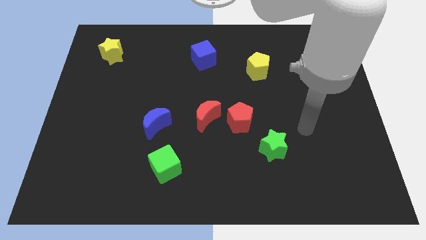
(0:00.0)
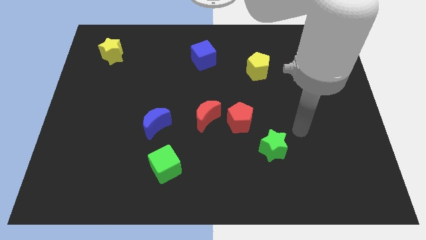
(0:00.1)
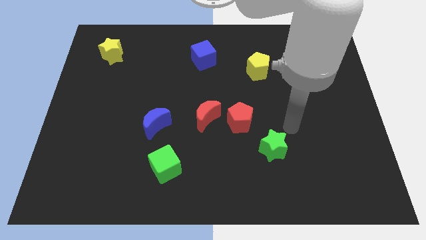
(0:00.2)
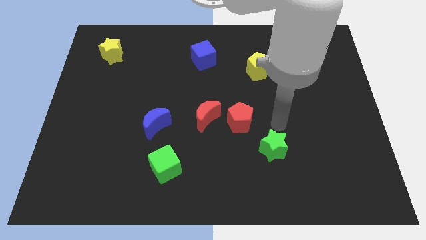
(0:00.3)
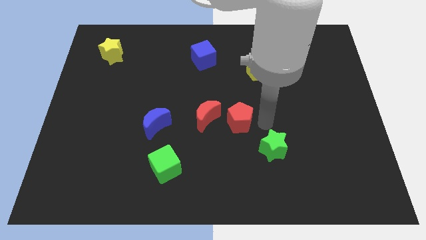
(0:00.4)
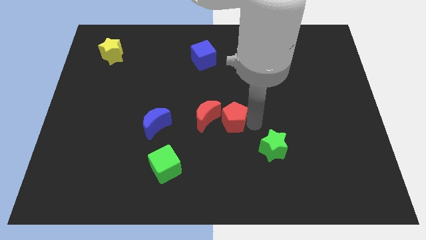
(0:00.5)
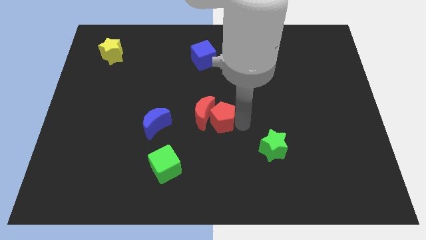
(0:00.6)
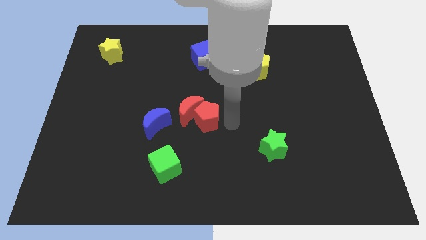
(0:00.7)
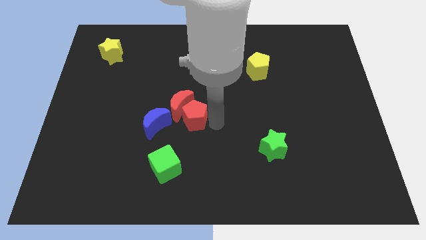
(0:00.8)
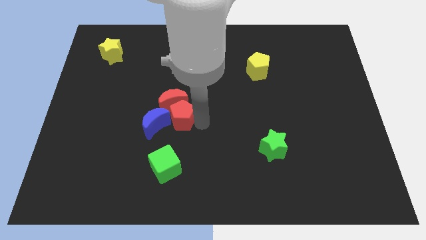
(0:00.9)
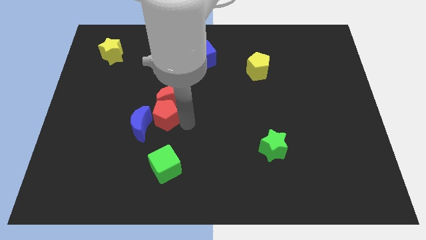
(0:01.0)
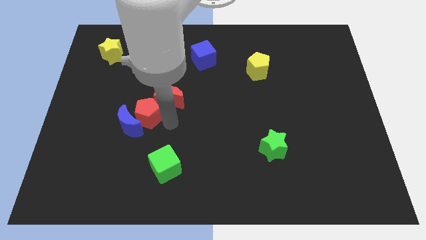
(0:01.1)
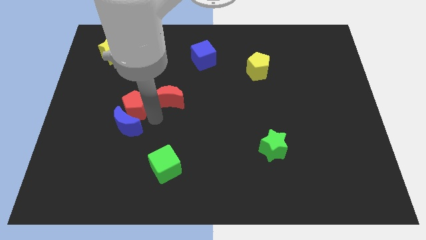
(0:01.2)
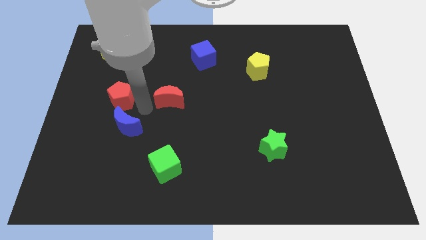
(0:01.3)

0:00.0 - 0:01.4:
separate the red moon from the red pentagon

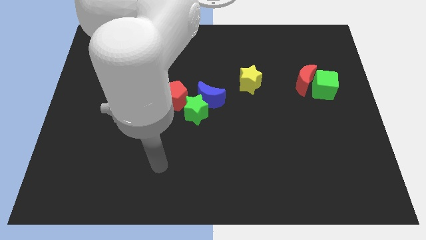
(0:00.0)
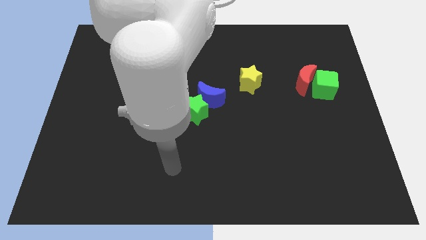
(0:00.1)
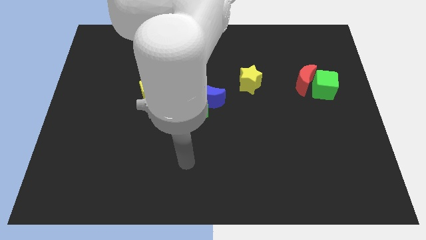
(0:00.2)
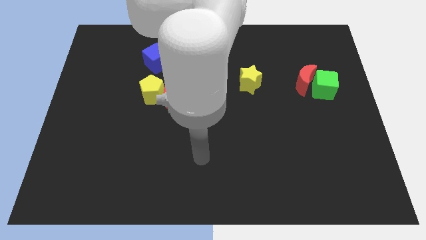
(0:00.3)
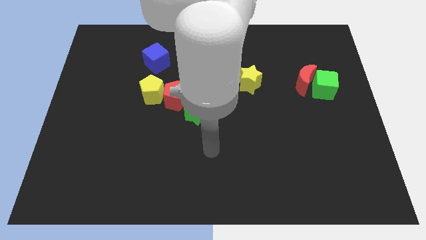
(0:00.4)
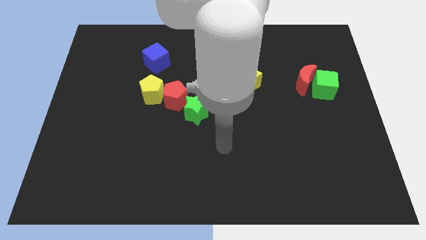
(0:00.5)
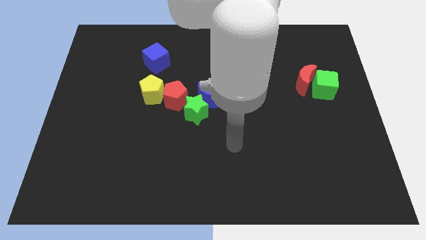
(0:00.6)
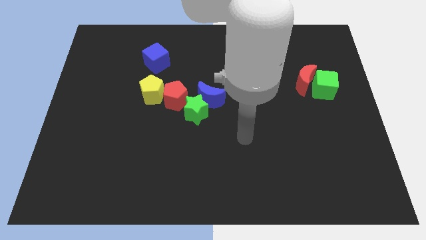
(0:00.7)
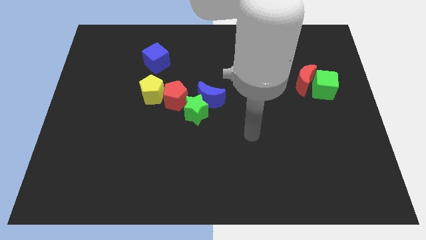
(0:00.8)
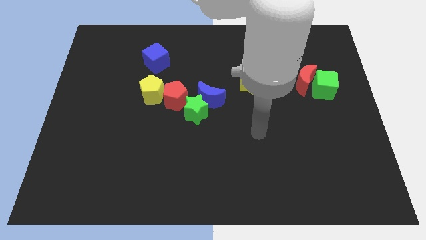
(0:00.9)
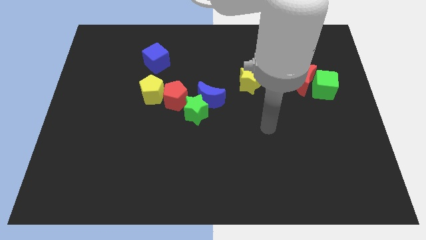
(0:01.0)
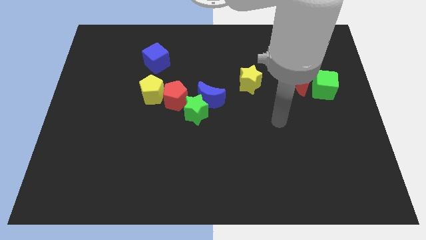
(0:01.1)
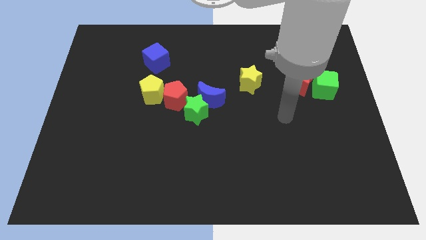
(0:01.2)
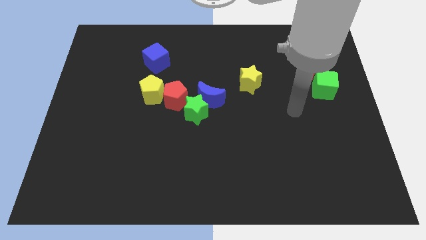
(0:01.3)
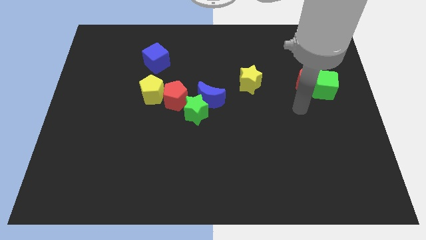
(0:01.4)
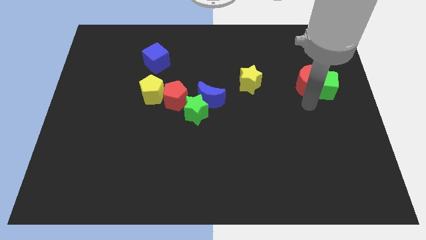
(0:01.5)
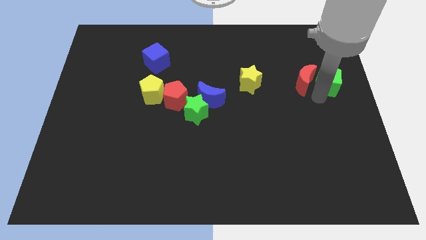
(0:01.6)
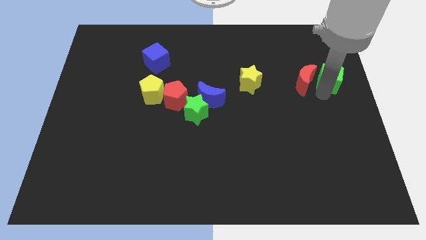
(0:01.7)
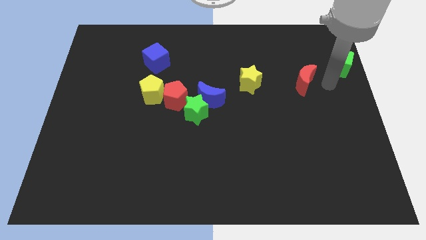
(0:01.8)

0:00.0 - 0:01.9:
separate the red moon from the green cube

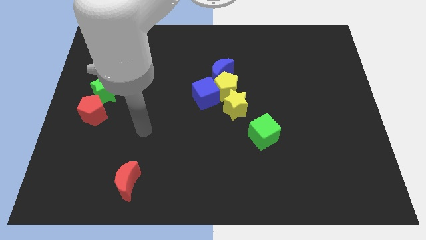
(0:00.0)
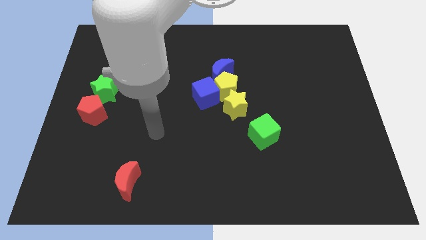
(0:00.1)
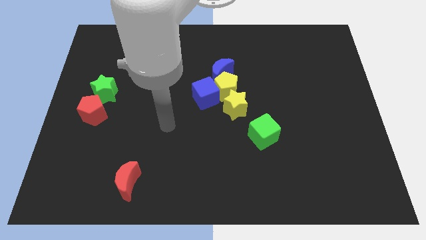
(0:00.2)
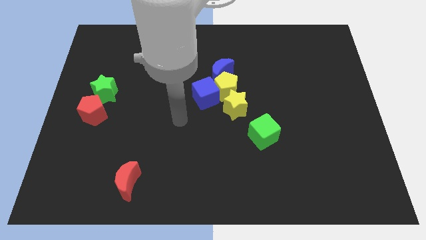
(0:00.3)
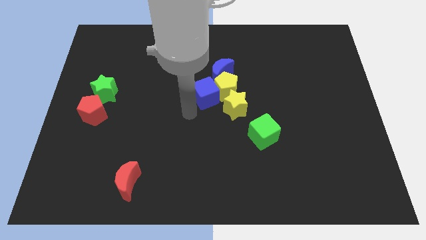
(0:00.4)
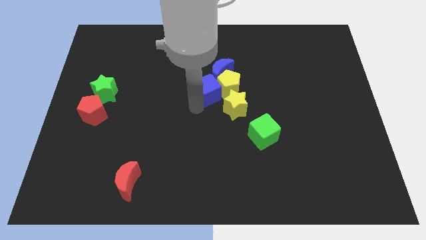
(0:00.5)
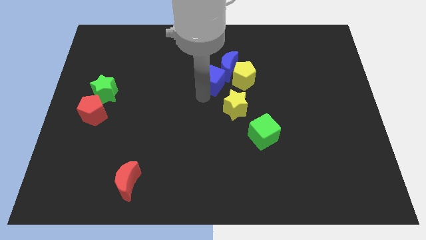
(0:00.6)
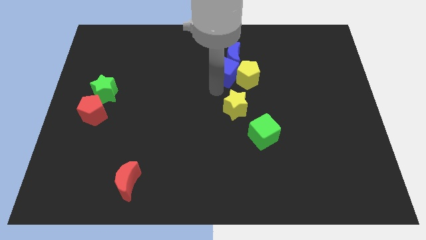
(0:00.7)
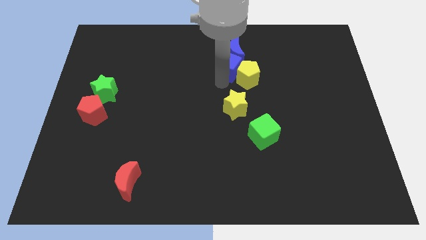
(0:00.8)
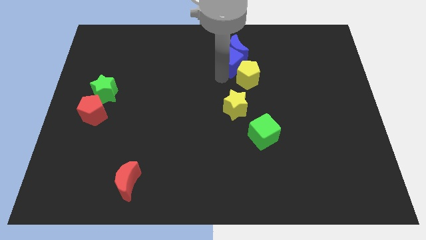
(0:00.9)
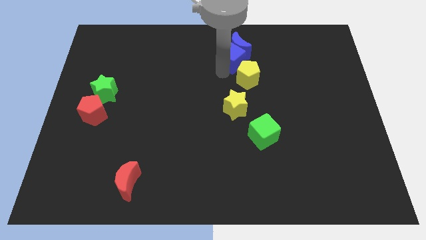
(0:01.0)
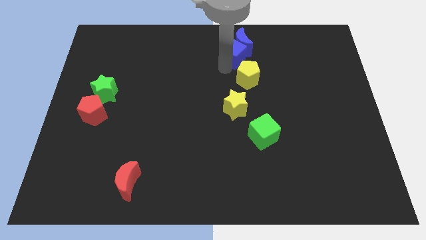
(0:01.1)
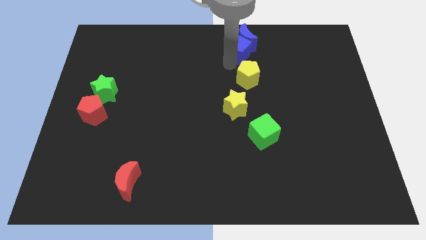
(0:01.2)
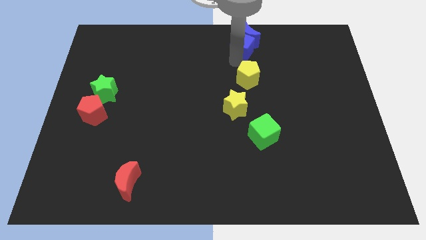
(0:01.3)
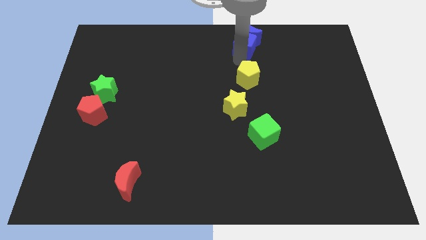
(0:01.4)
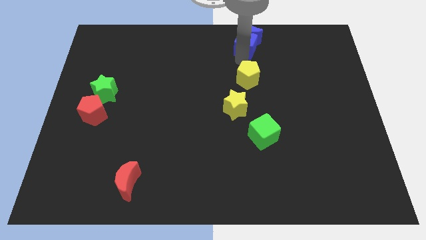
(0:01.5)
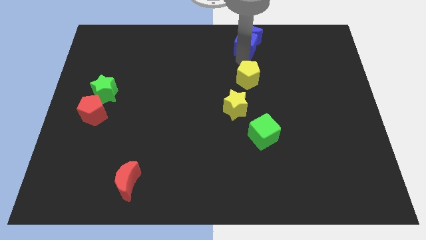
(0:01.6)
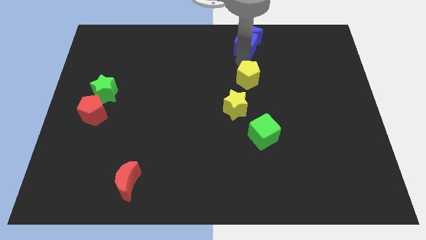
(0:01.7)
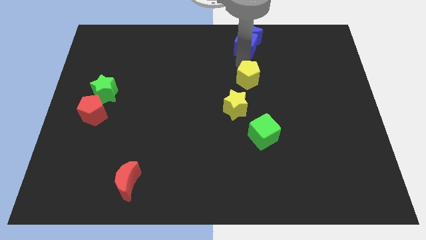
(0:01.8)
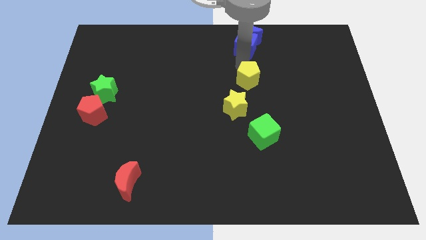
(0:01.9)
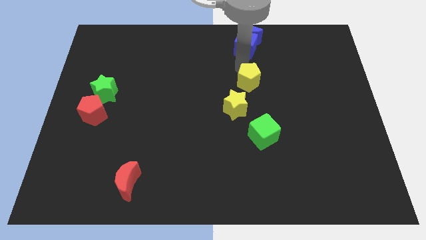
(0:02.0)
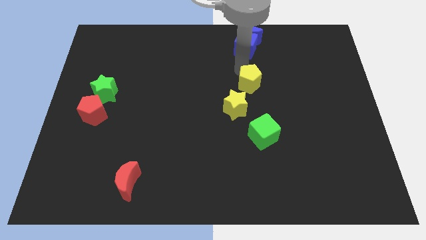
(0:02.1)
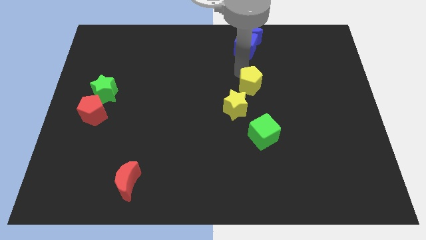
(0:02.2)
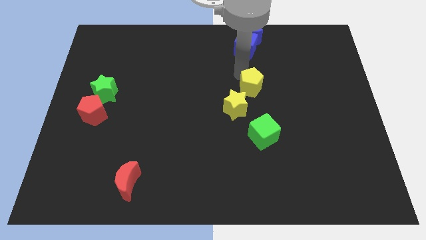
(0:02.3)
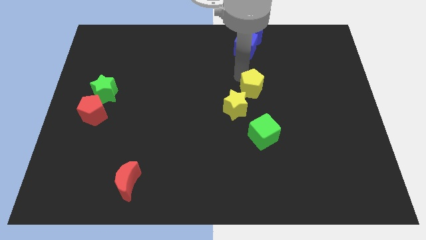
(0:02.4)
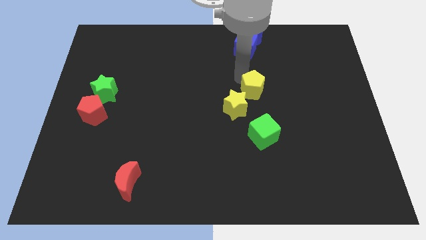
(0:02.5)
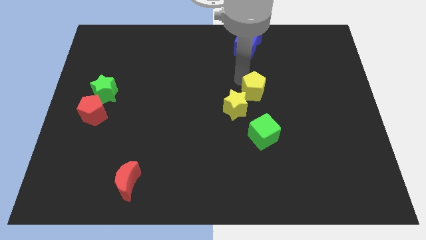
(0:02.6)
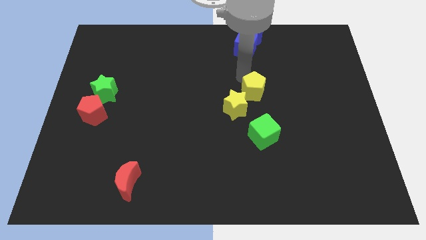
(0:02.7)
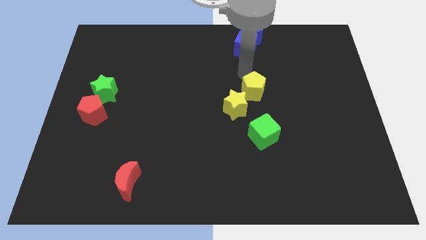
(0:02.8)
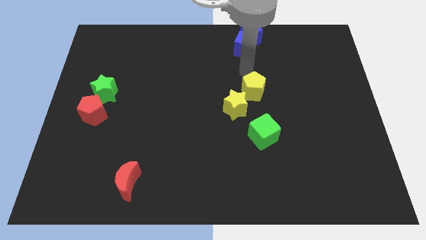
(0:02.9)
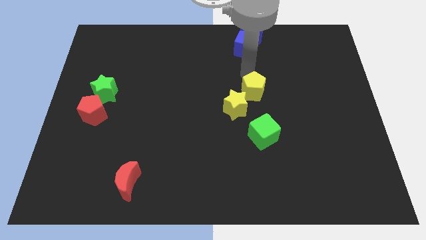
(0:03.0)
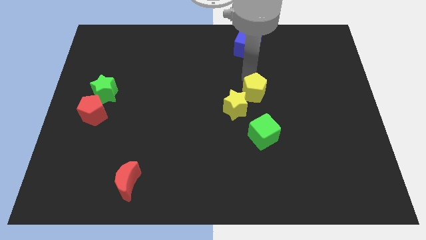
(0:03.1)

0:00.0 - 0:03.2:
move the yellow pentagon away from the blue moon, blue cube, and yellow star

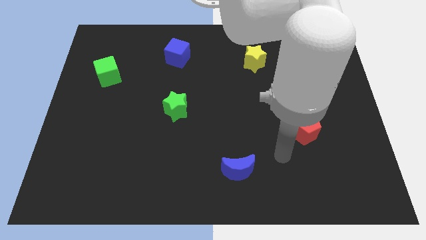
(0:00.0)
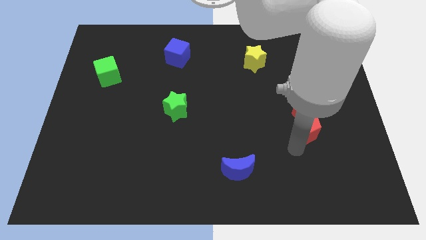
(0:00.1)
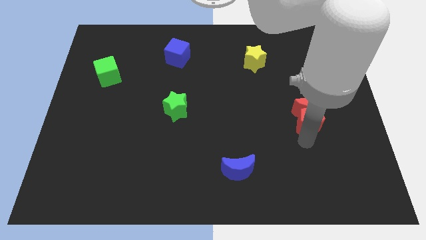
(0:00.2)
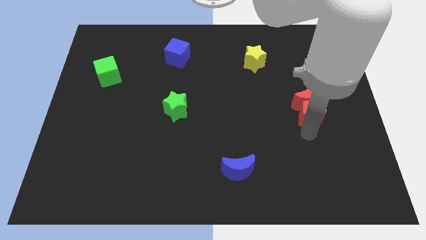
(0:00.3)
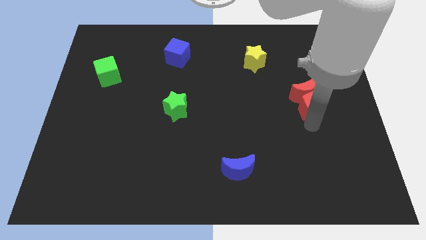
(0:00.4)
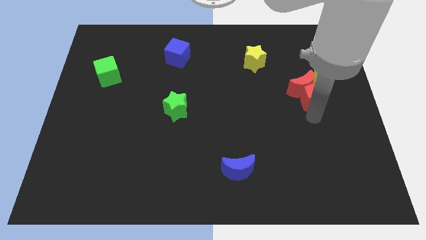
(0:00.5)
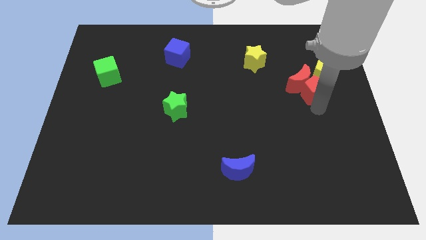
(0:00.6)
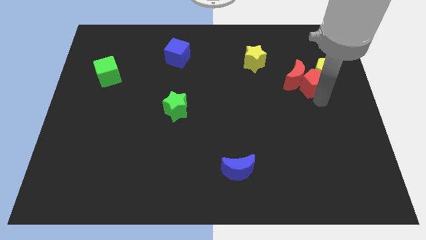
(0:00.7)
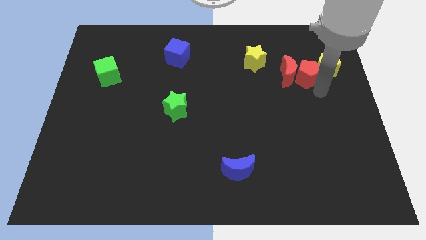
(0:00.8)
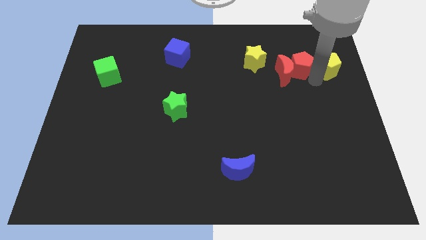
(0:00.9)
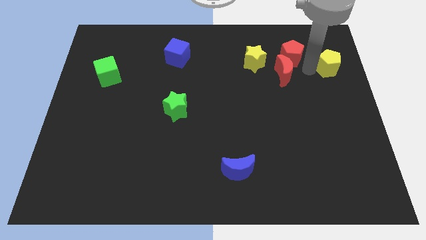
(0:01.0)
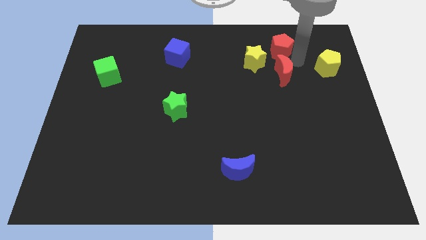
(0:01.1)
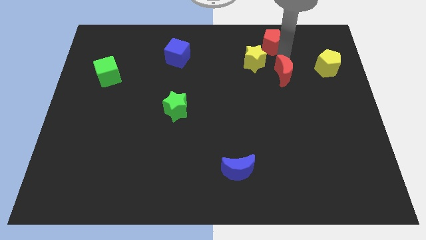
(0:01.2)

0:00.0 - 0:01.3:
pull the red moon apart from the red pentagon

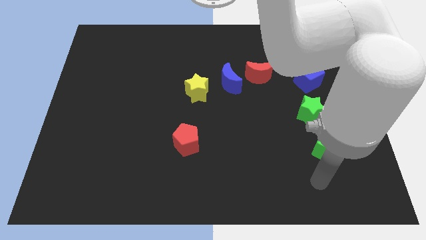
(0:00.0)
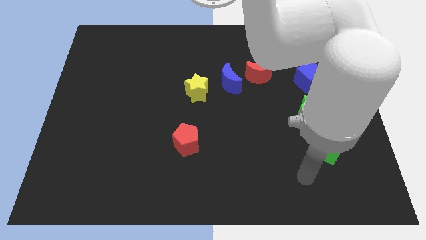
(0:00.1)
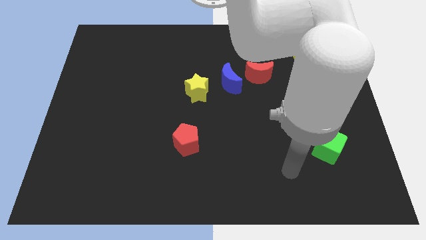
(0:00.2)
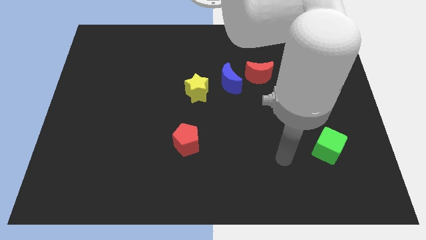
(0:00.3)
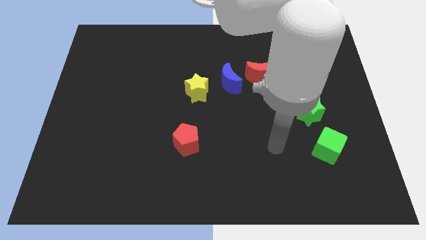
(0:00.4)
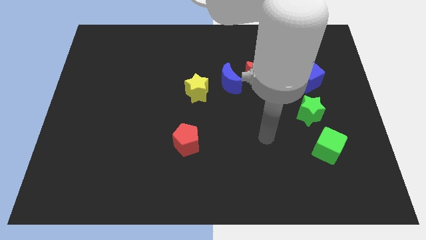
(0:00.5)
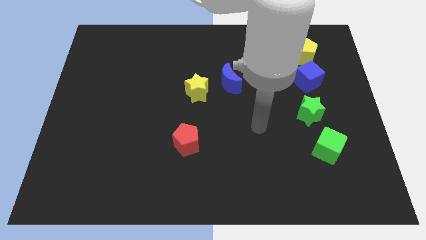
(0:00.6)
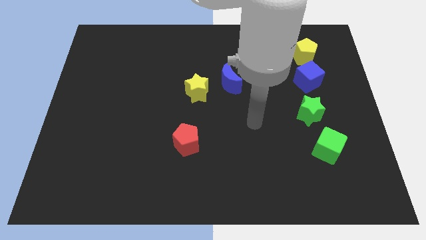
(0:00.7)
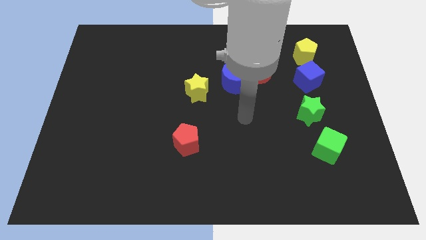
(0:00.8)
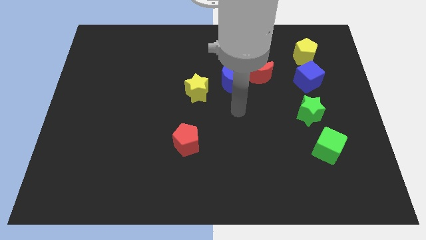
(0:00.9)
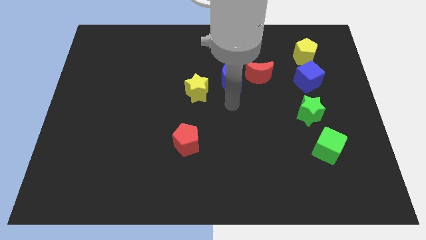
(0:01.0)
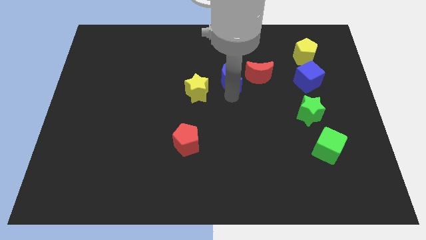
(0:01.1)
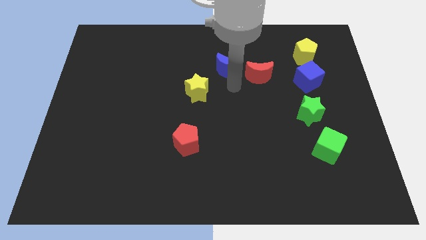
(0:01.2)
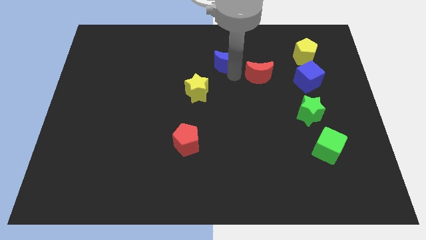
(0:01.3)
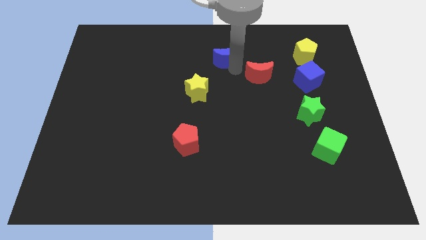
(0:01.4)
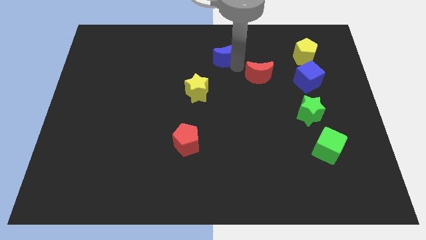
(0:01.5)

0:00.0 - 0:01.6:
move the red moon away from the blue moon
